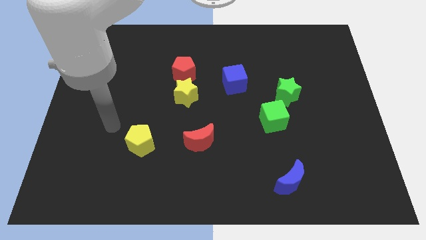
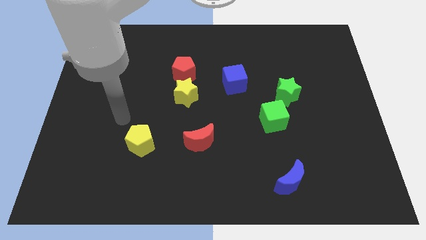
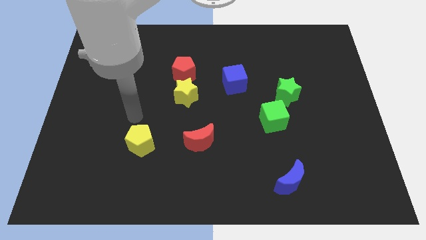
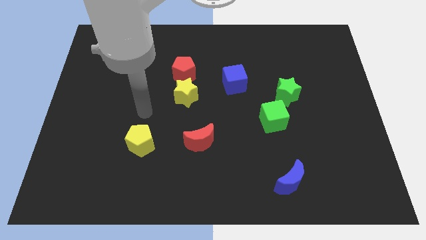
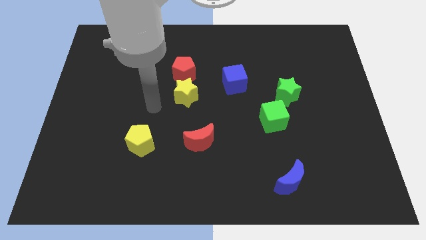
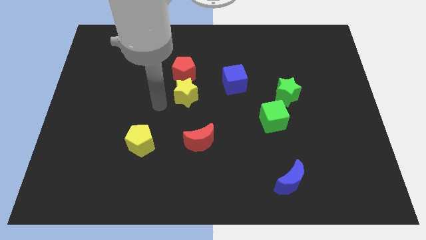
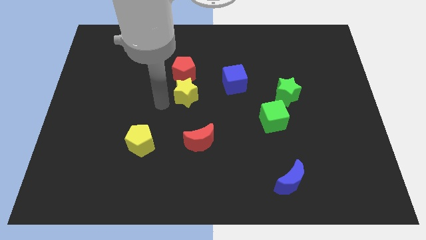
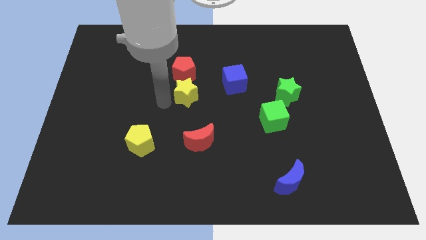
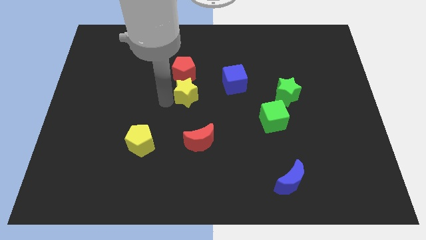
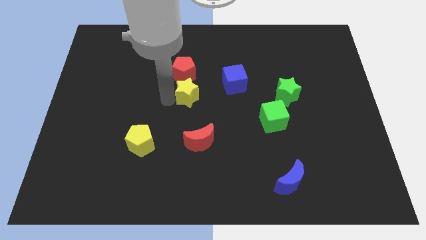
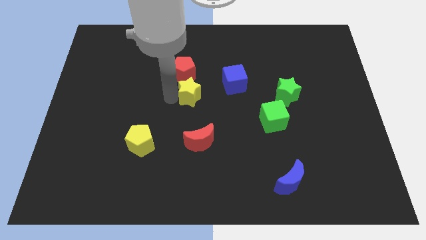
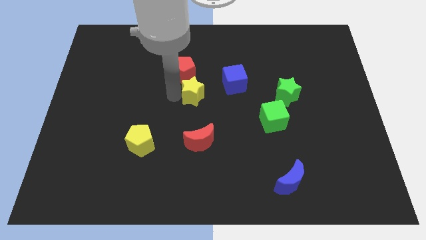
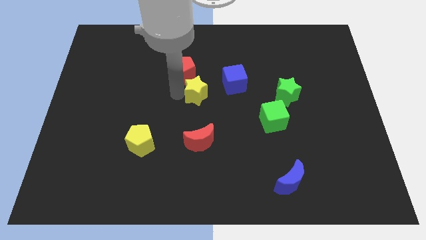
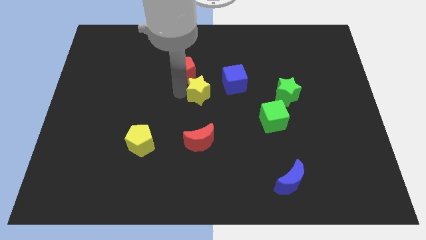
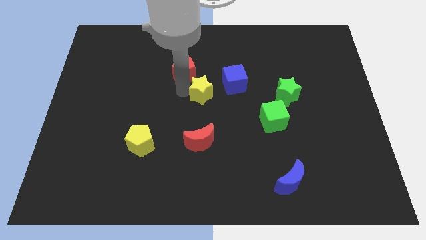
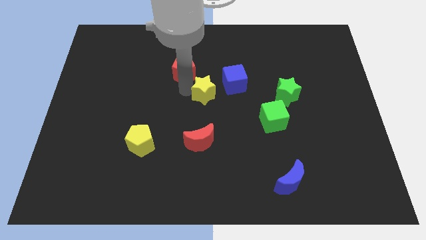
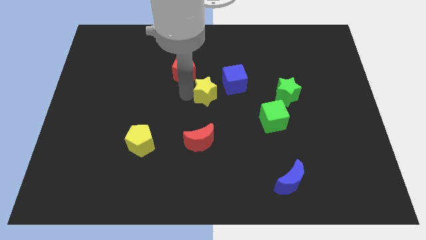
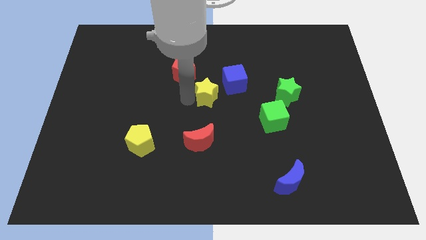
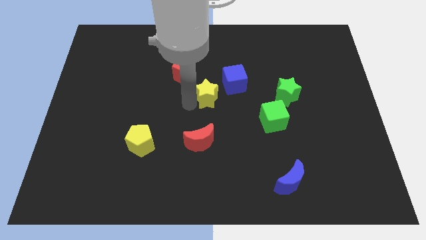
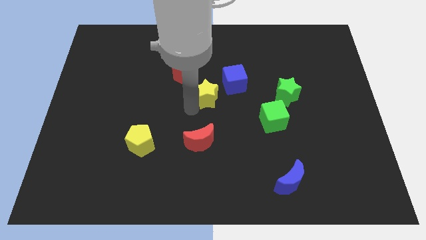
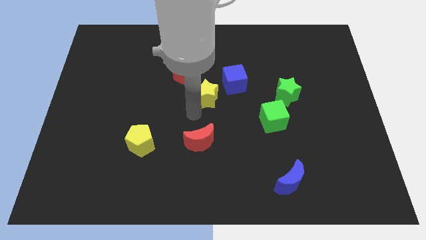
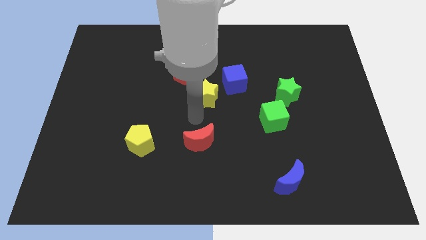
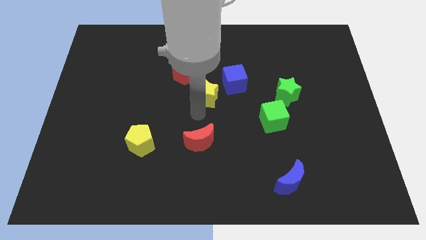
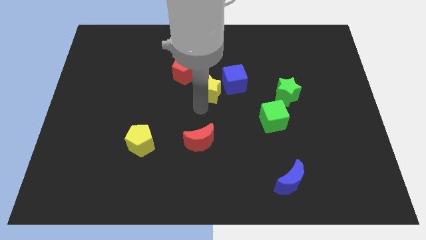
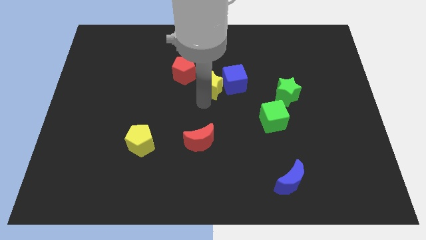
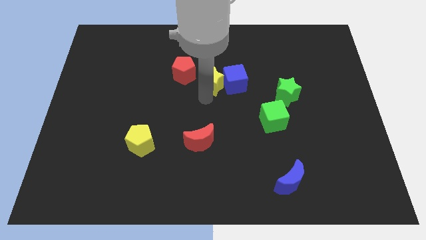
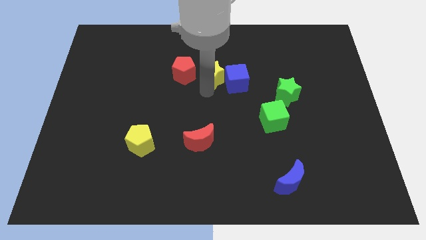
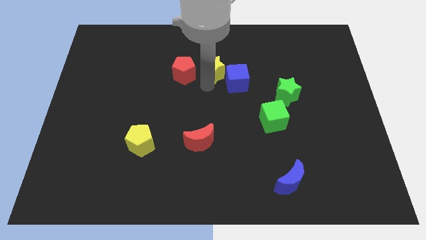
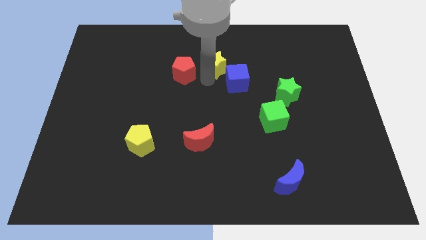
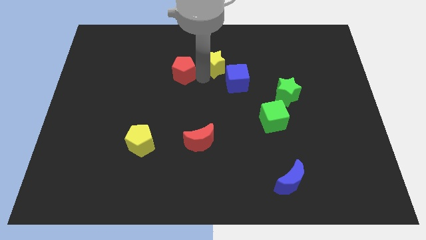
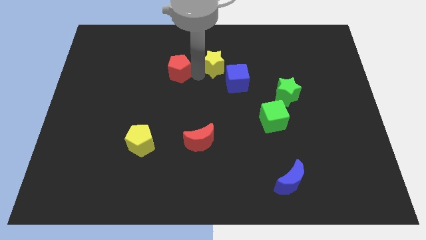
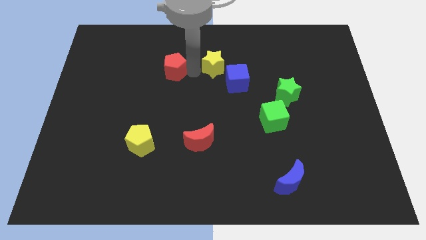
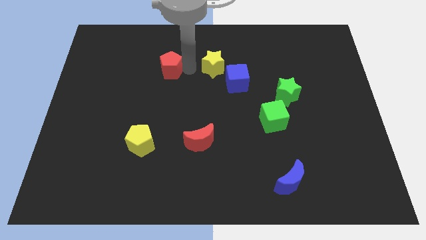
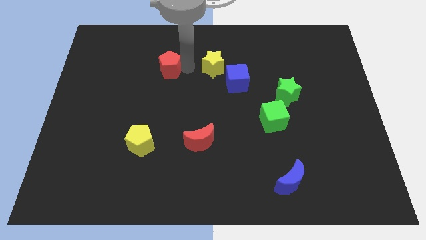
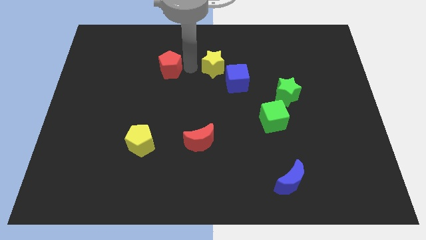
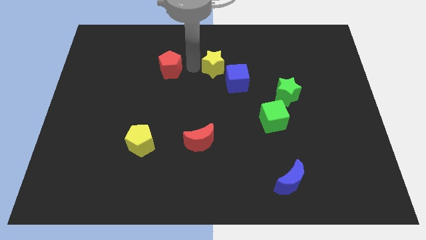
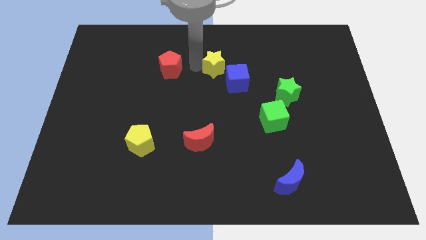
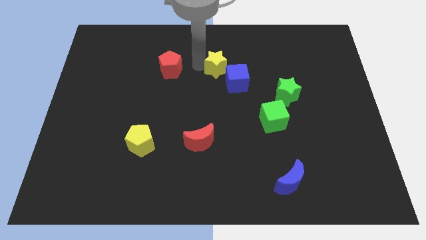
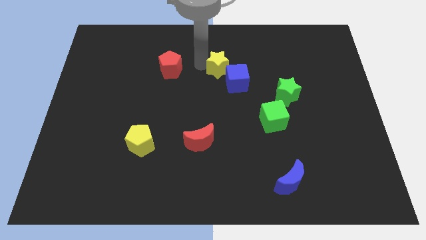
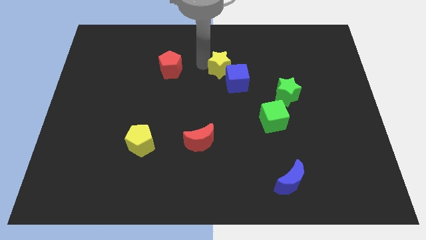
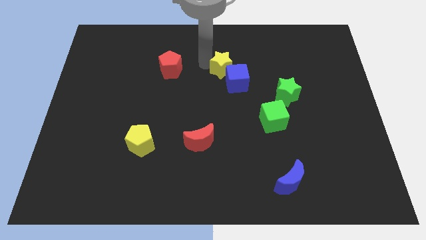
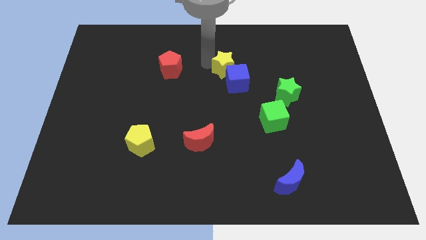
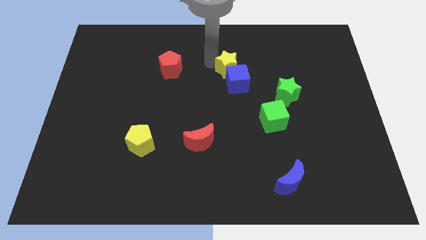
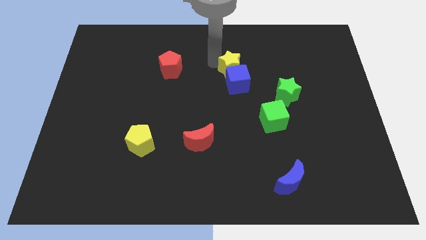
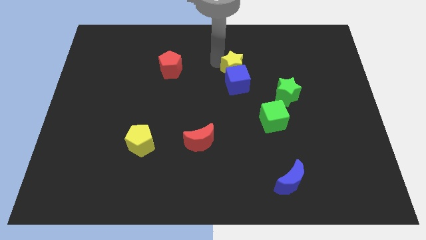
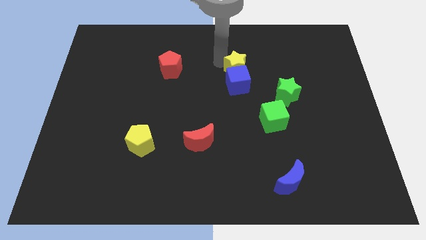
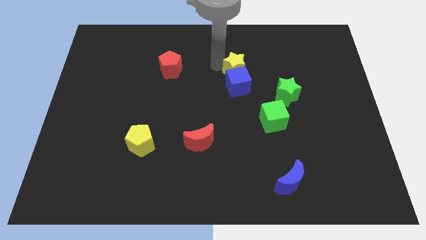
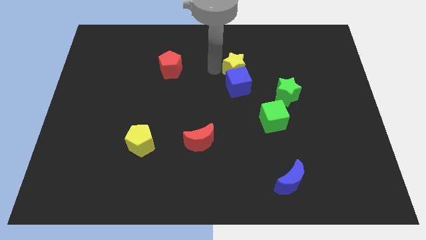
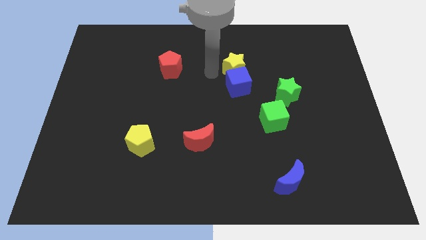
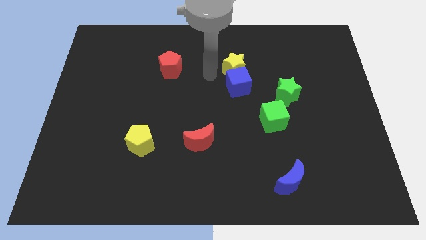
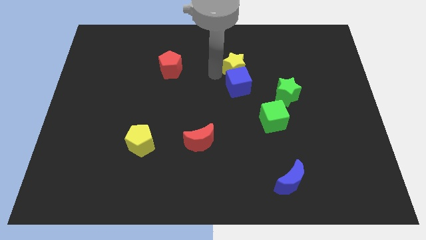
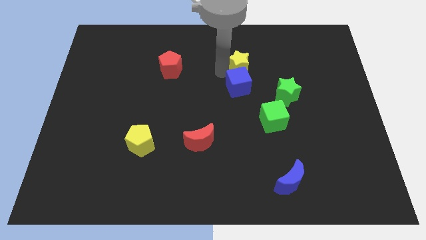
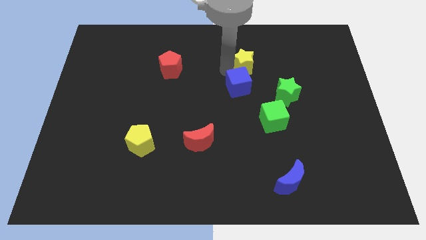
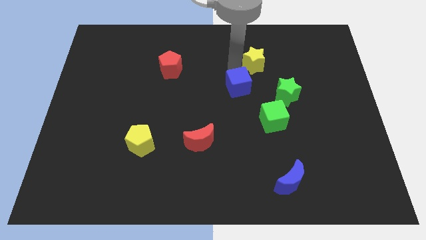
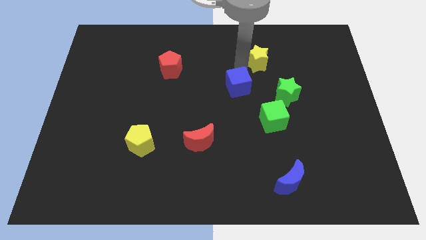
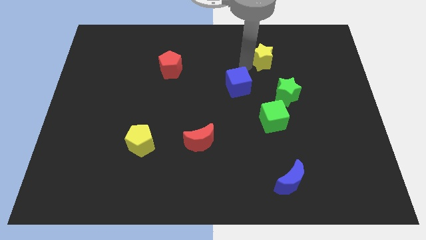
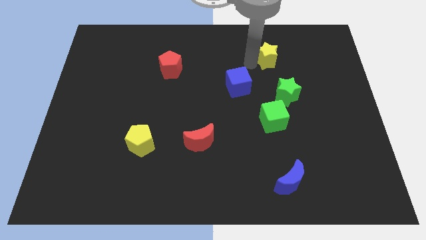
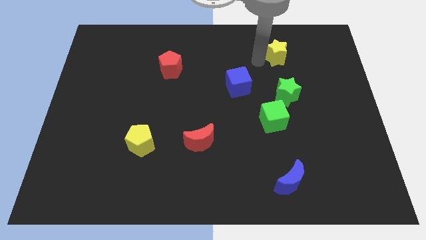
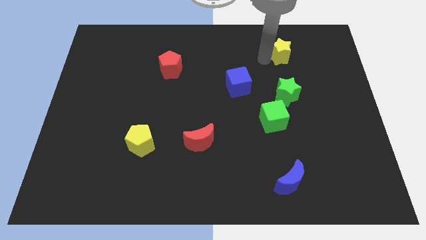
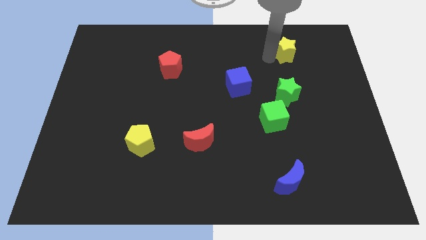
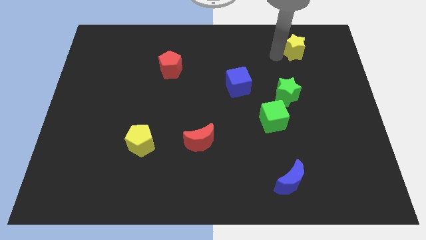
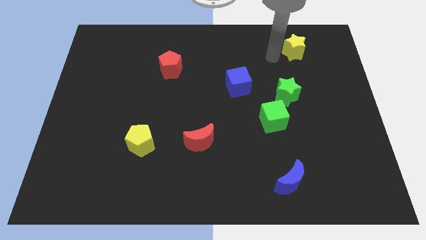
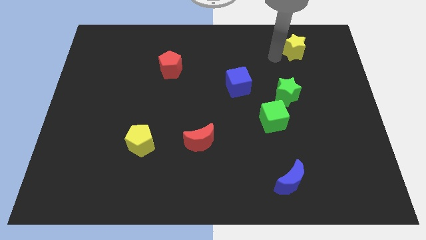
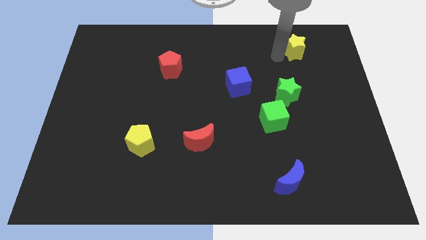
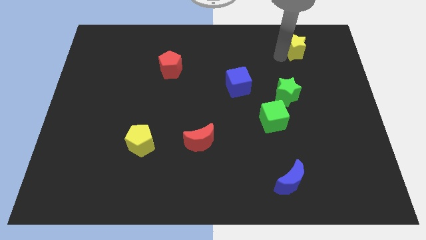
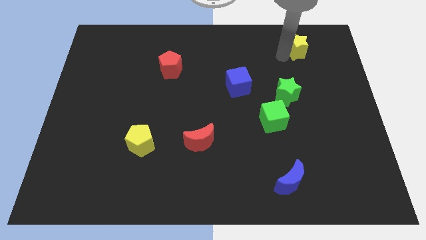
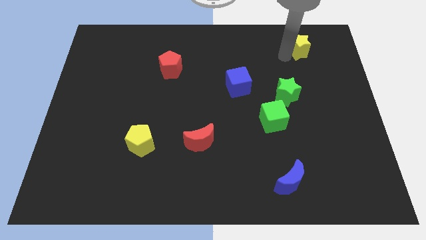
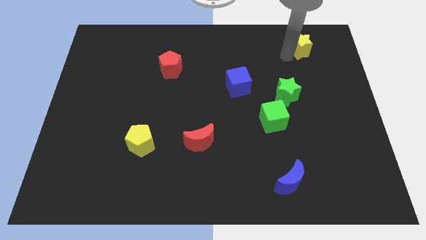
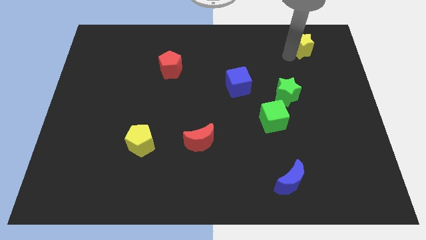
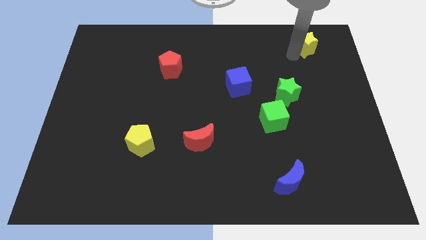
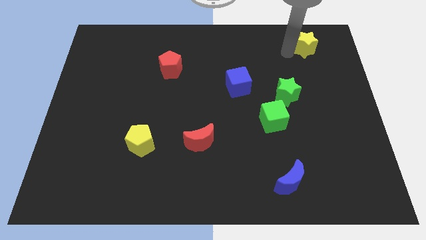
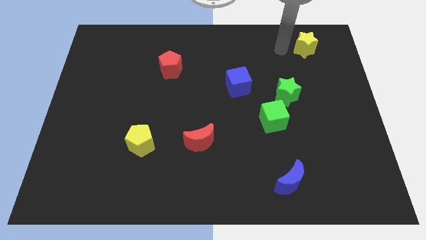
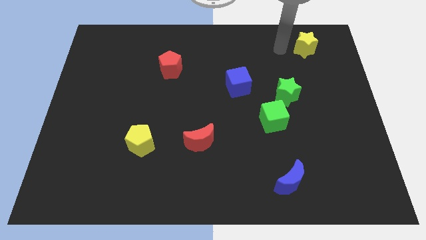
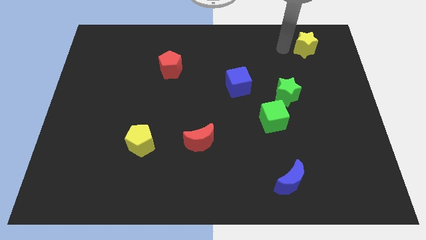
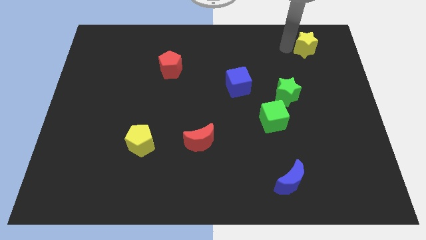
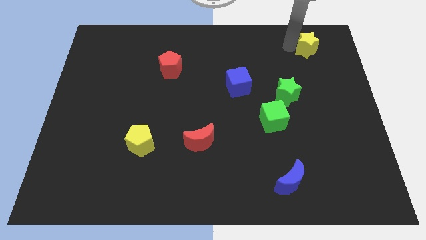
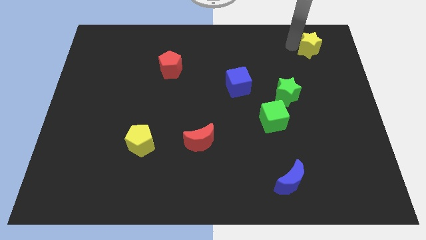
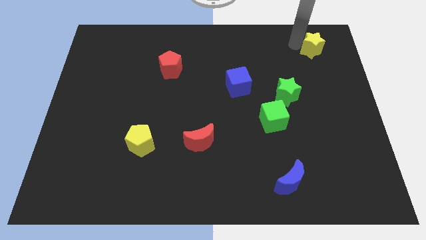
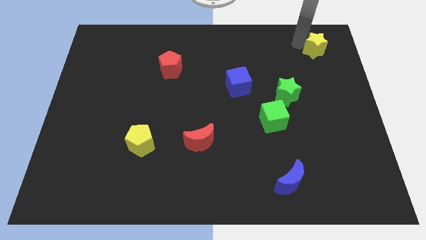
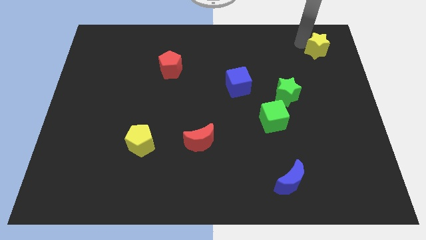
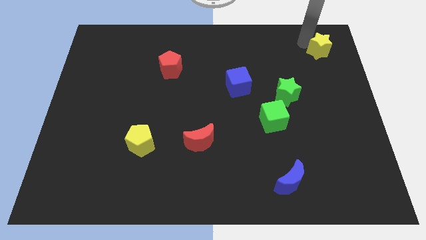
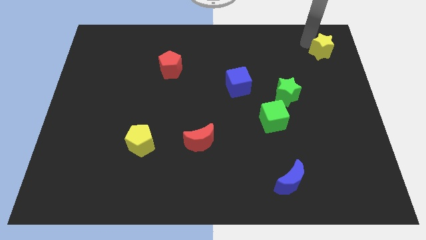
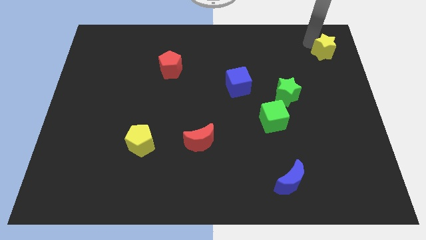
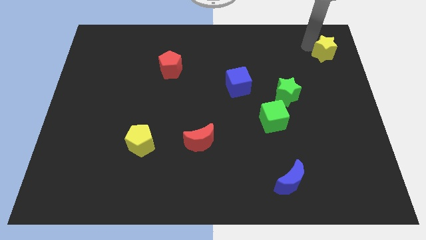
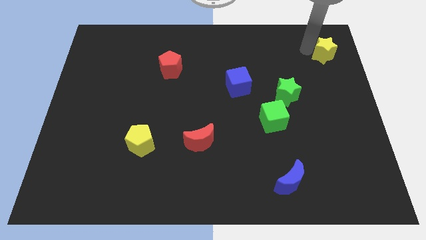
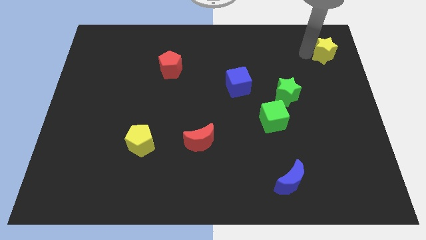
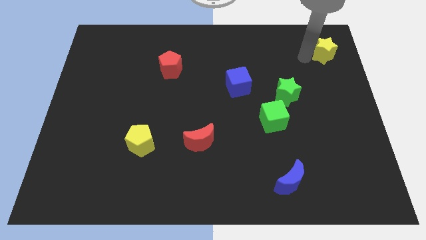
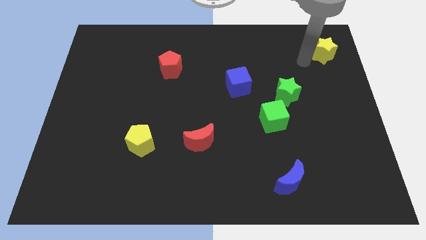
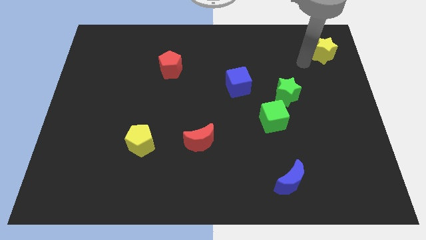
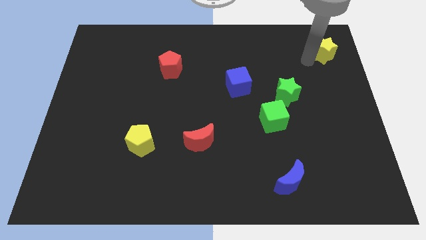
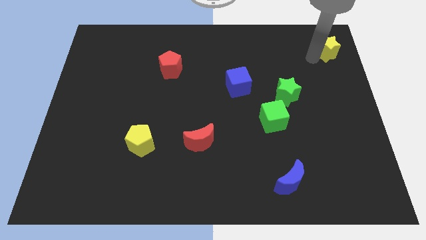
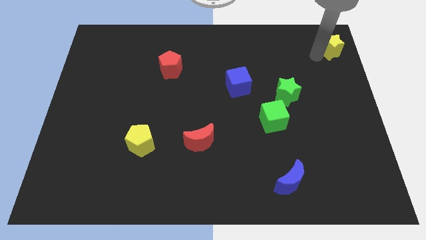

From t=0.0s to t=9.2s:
put the yellow star to the upper right corner
